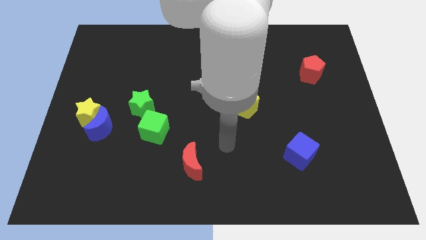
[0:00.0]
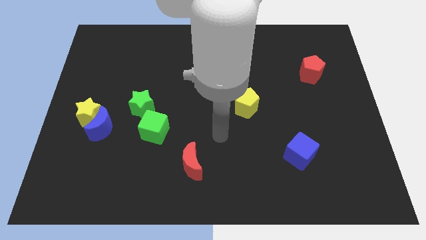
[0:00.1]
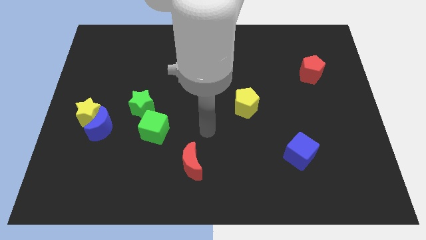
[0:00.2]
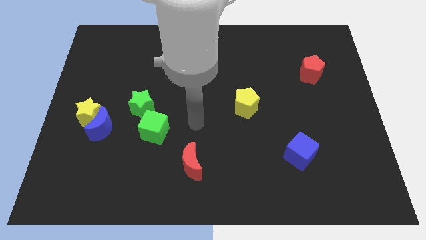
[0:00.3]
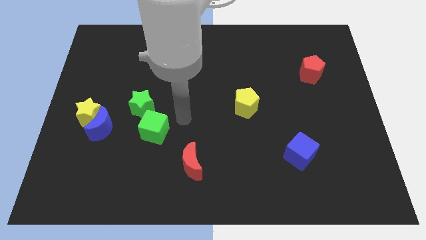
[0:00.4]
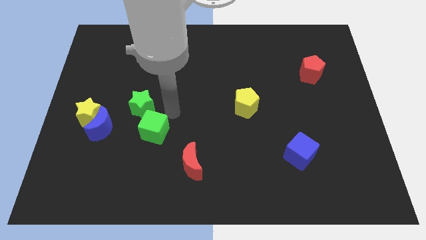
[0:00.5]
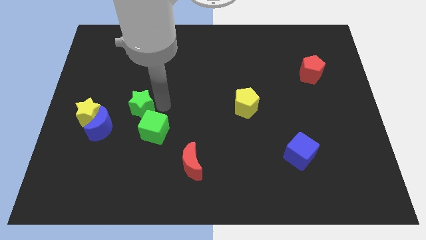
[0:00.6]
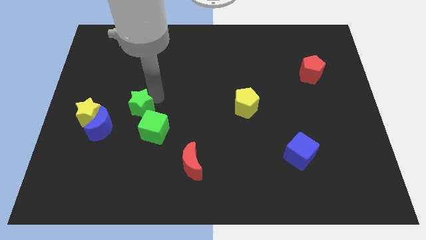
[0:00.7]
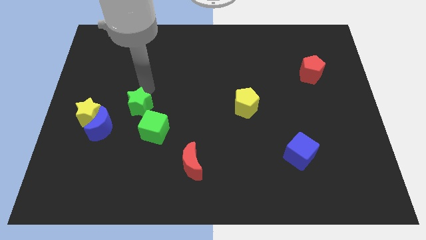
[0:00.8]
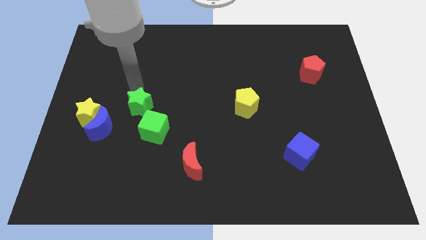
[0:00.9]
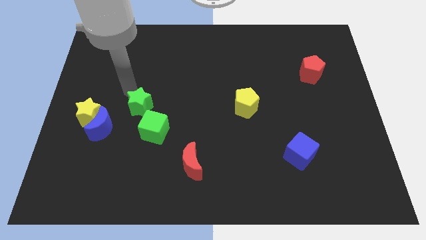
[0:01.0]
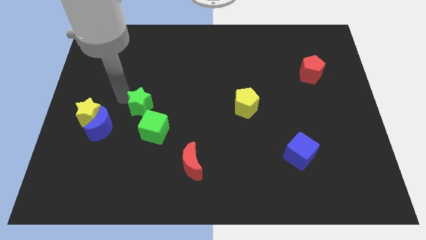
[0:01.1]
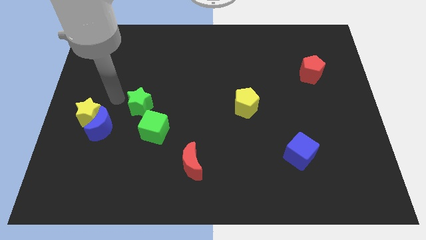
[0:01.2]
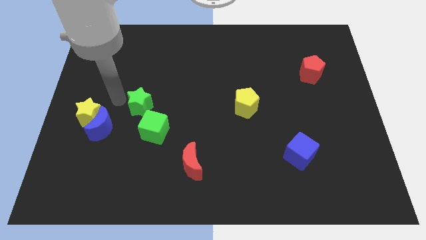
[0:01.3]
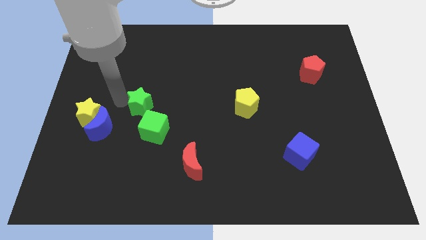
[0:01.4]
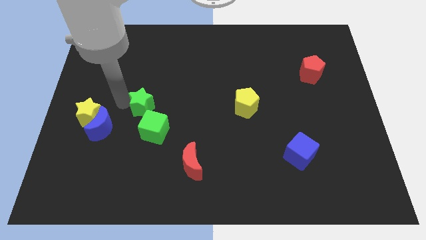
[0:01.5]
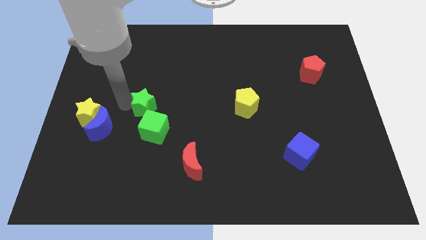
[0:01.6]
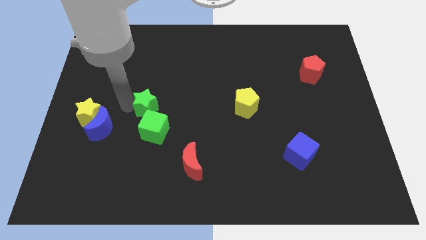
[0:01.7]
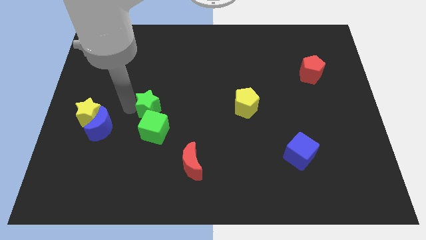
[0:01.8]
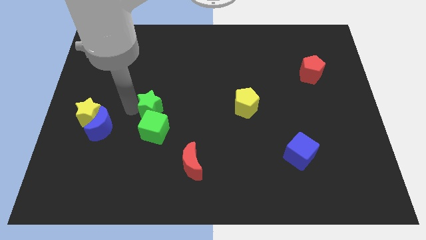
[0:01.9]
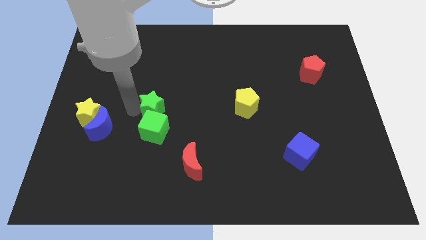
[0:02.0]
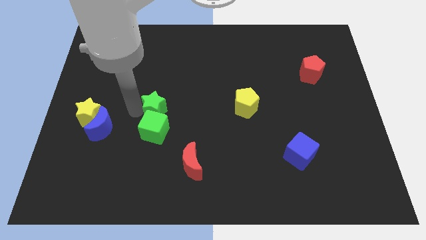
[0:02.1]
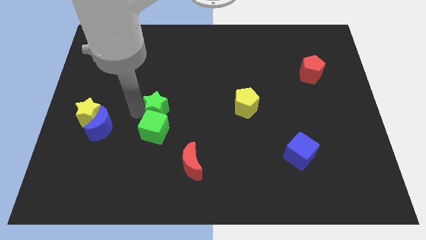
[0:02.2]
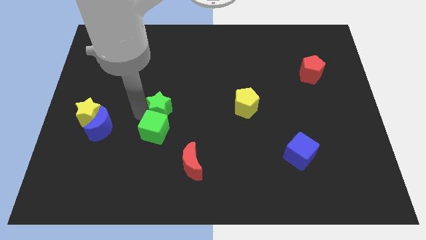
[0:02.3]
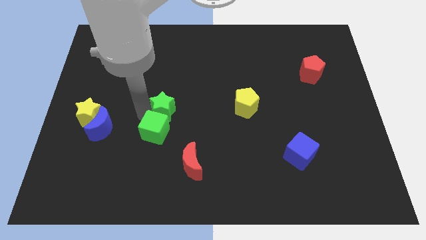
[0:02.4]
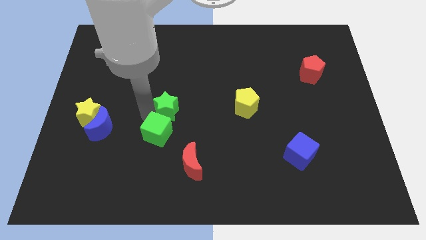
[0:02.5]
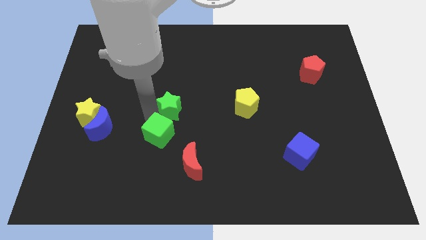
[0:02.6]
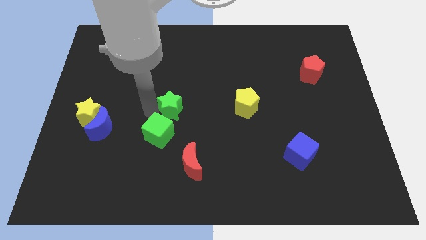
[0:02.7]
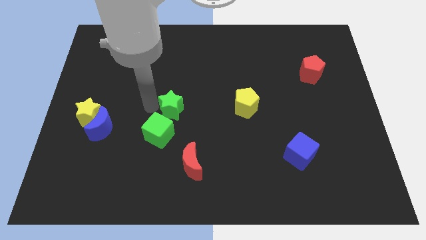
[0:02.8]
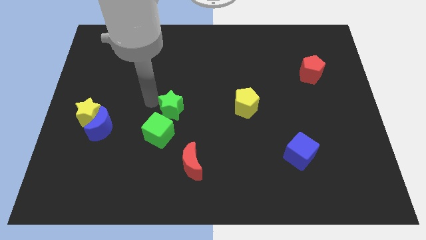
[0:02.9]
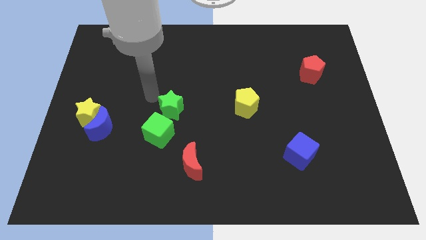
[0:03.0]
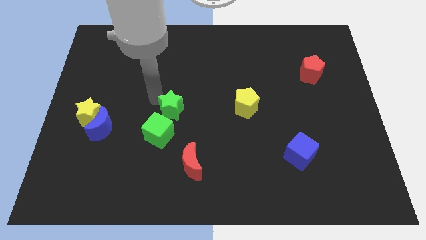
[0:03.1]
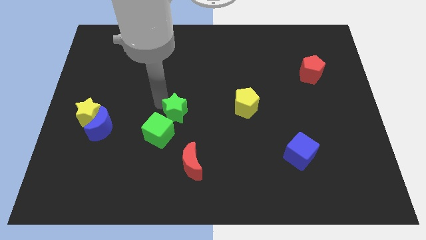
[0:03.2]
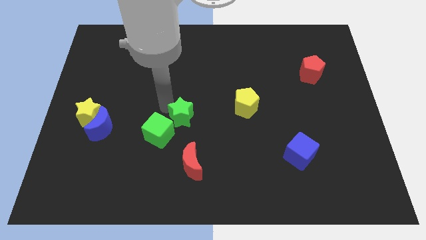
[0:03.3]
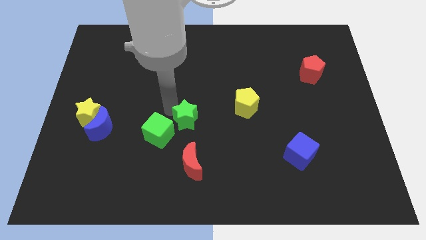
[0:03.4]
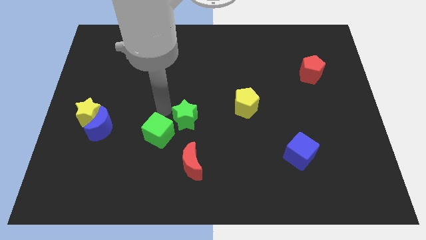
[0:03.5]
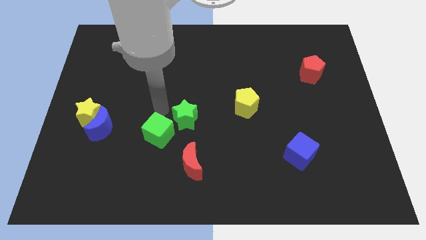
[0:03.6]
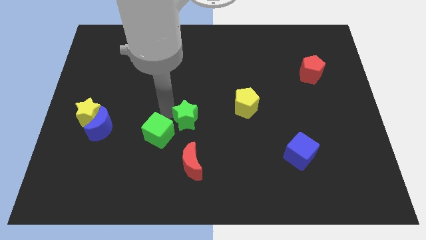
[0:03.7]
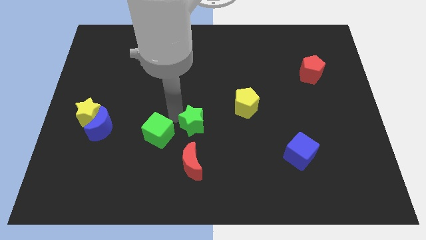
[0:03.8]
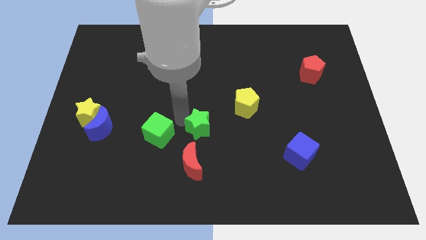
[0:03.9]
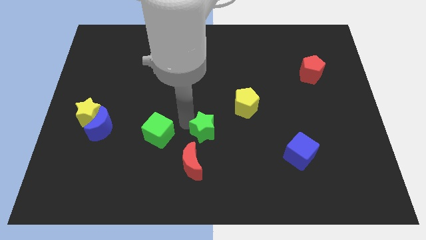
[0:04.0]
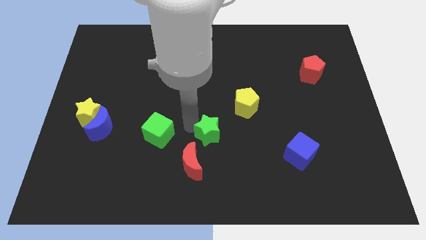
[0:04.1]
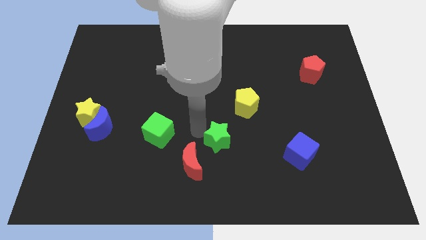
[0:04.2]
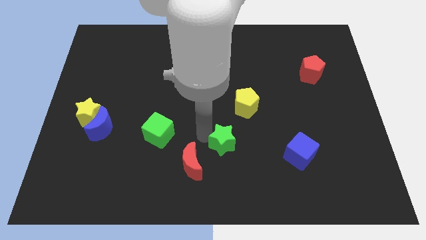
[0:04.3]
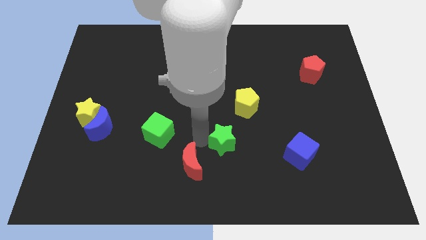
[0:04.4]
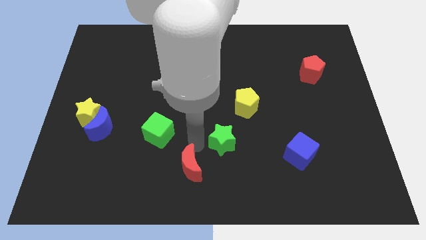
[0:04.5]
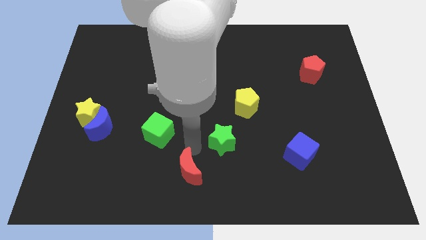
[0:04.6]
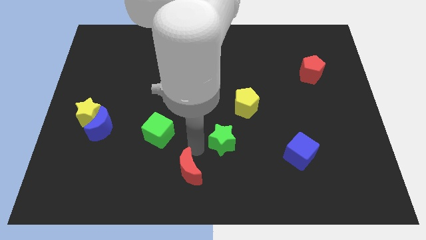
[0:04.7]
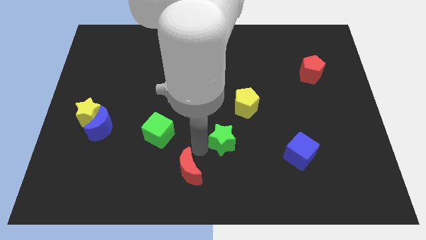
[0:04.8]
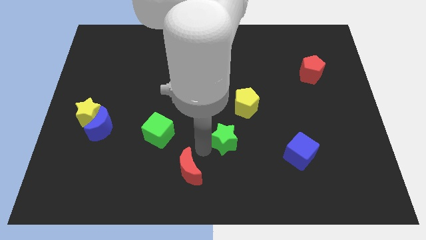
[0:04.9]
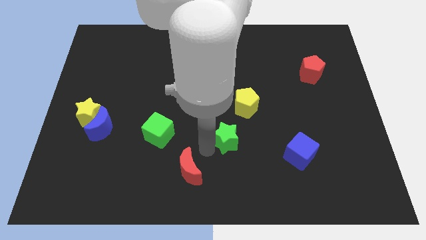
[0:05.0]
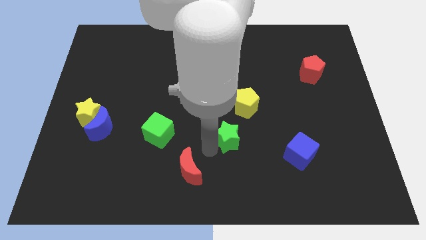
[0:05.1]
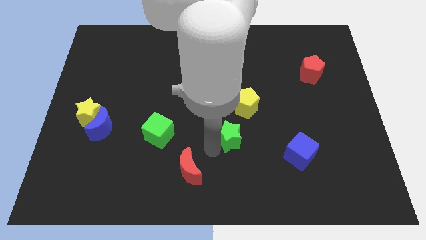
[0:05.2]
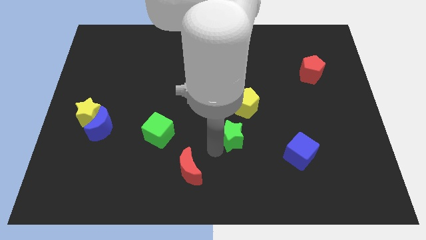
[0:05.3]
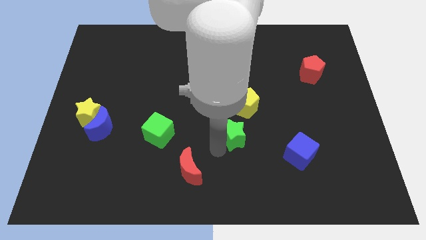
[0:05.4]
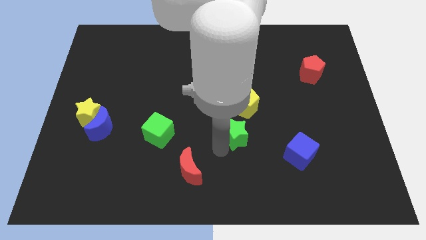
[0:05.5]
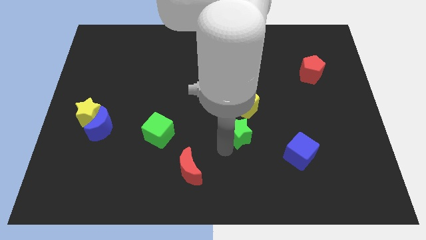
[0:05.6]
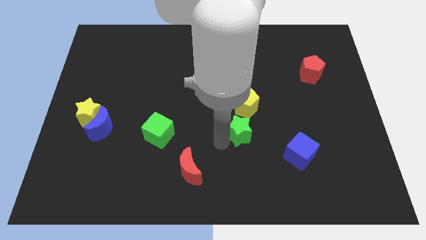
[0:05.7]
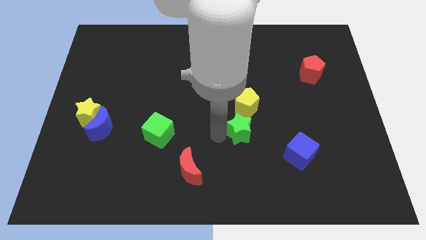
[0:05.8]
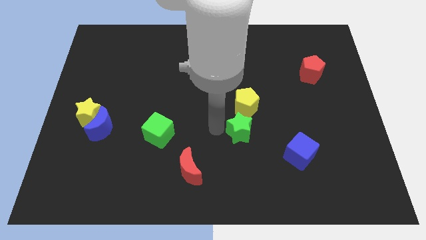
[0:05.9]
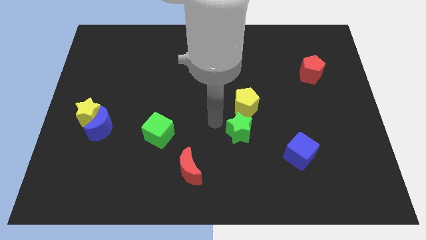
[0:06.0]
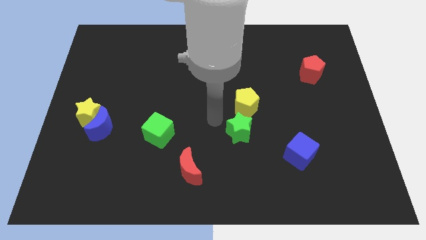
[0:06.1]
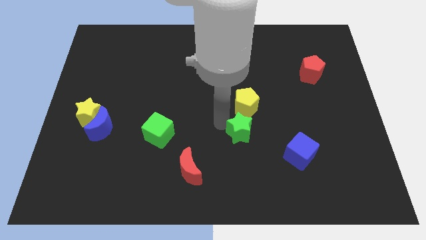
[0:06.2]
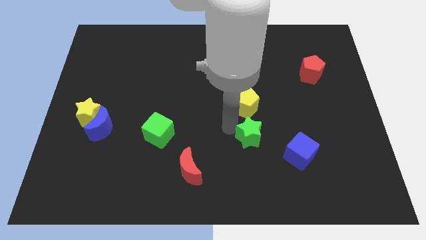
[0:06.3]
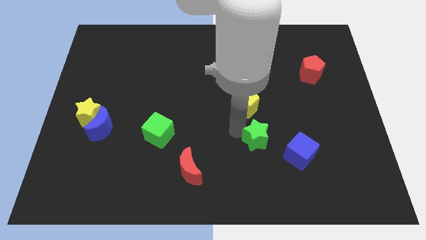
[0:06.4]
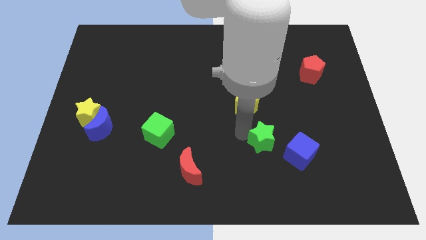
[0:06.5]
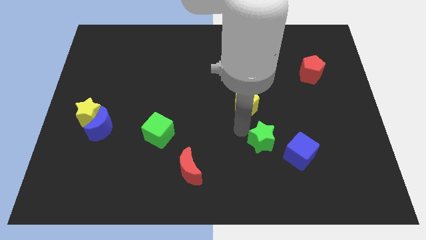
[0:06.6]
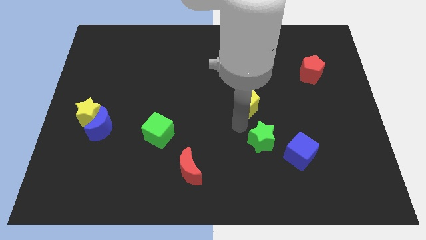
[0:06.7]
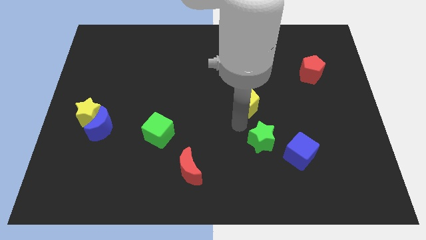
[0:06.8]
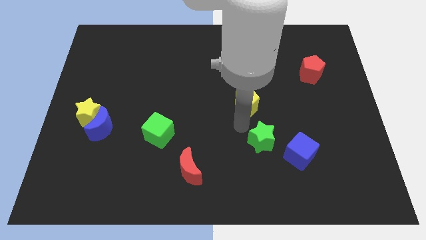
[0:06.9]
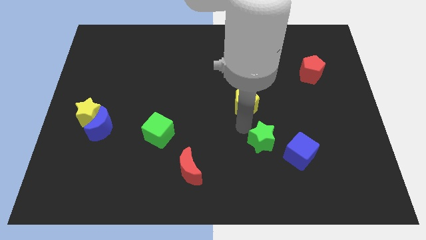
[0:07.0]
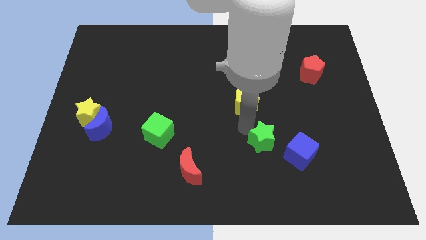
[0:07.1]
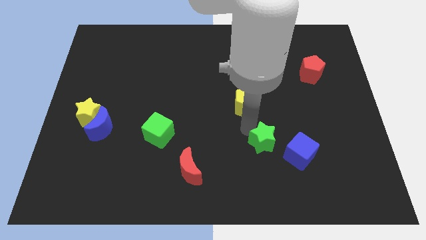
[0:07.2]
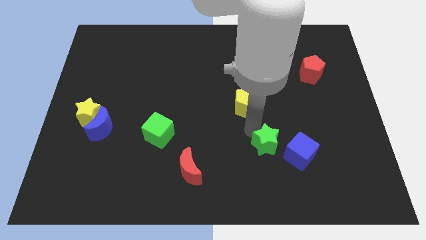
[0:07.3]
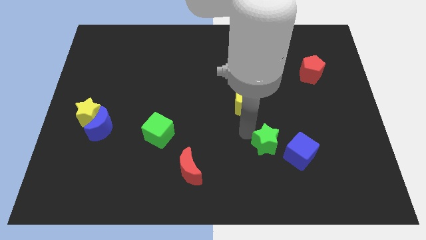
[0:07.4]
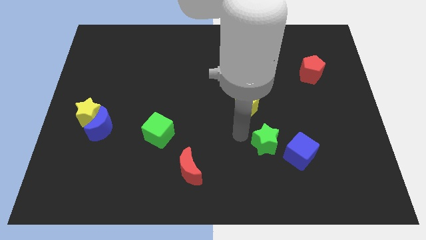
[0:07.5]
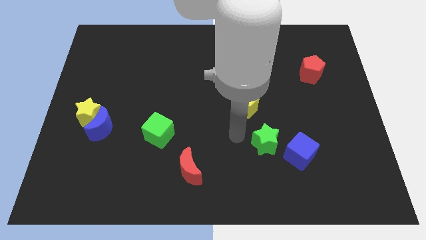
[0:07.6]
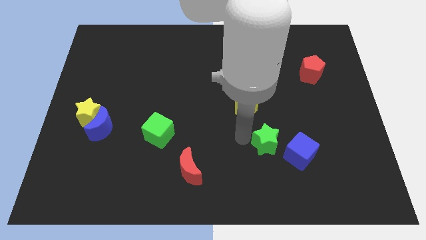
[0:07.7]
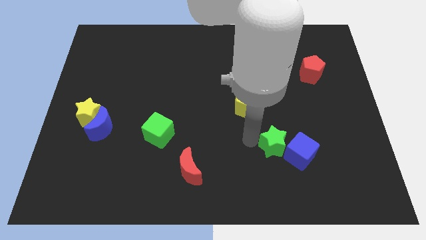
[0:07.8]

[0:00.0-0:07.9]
move the green star towards the blue cube
